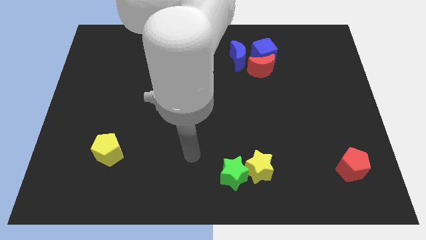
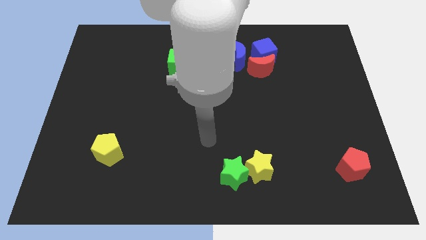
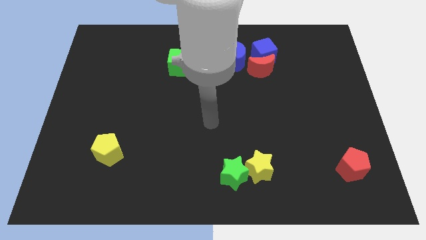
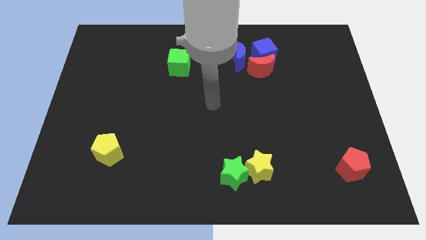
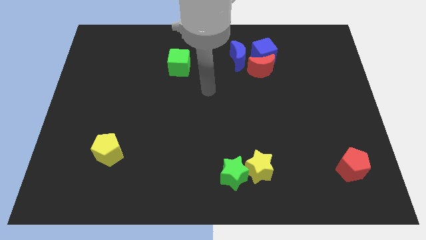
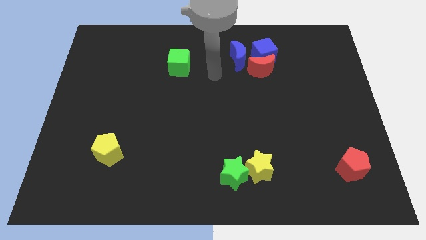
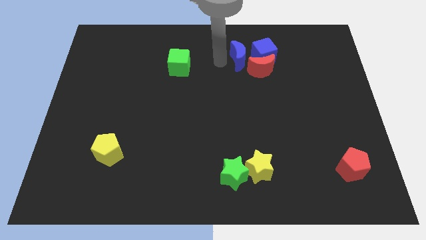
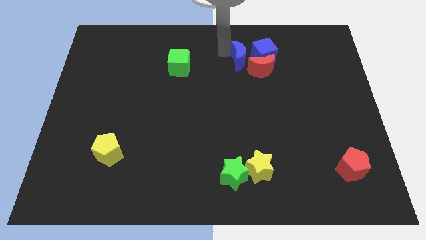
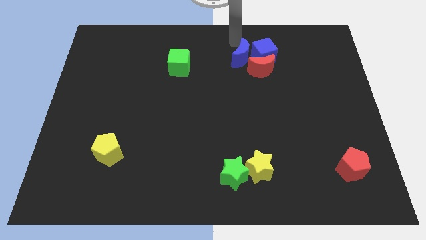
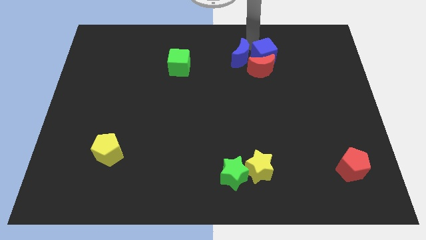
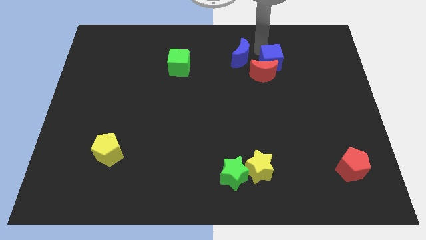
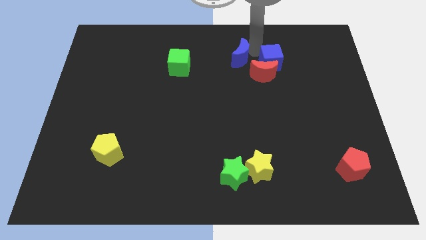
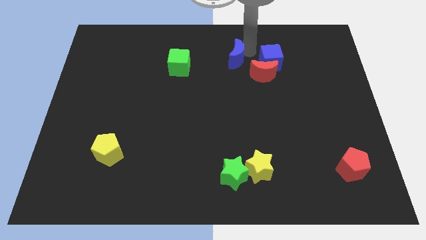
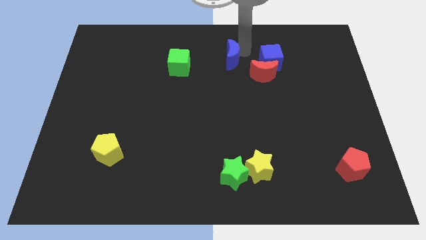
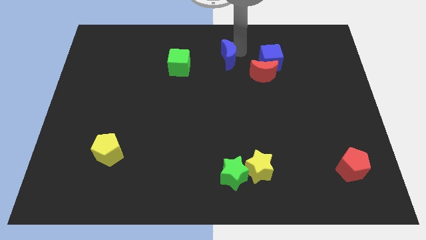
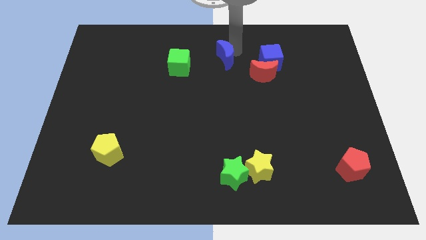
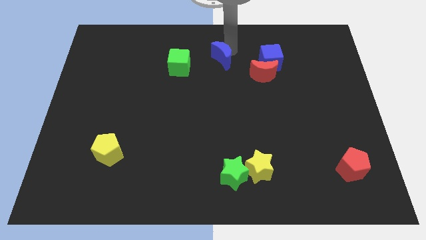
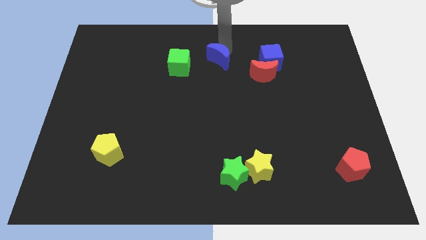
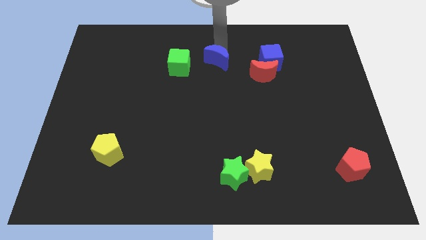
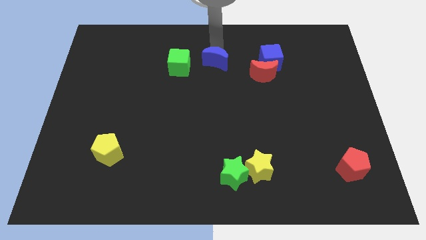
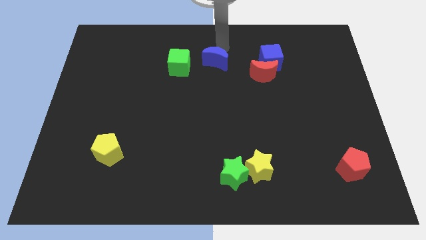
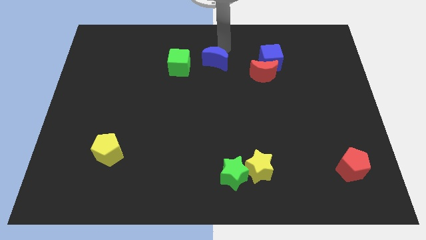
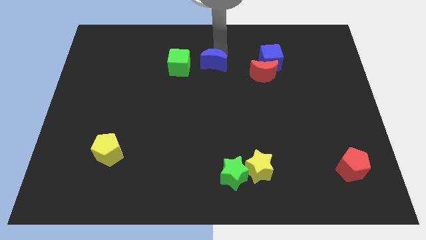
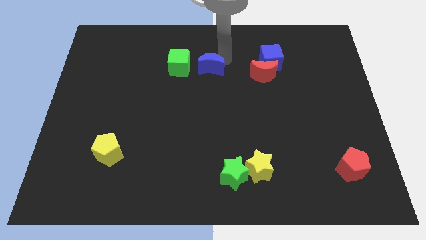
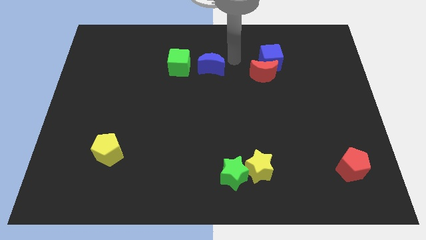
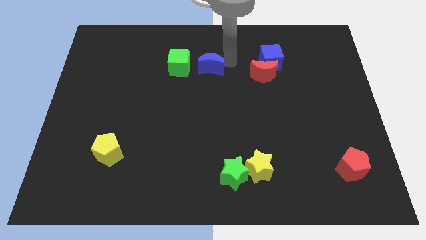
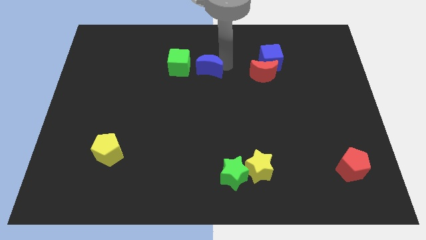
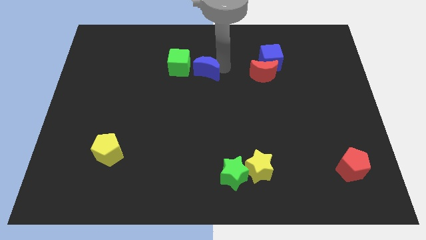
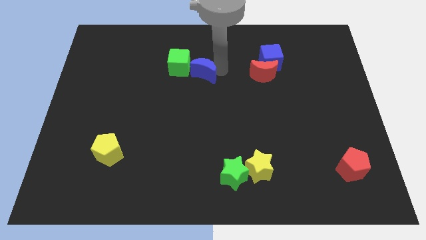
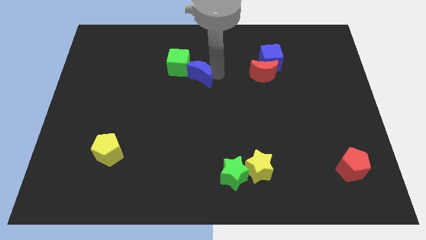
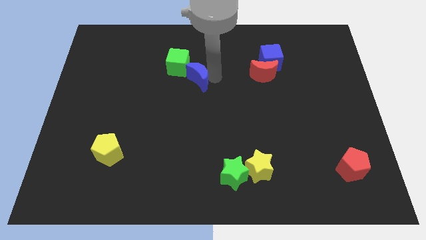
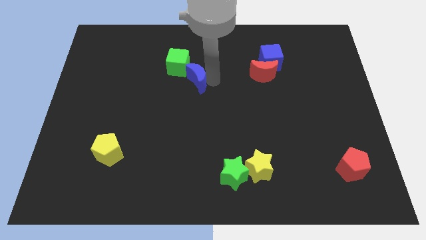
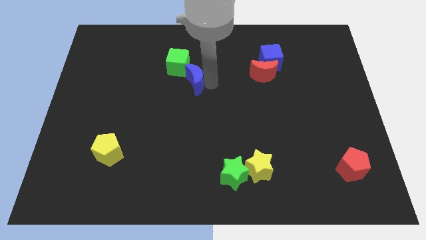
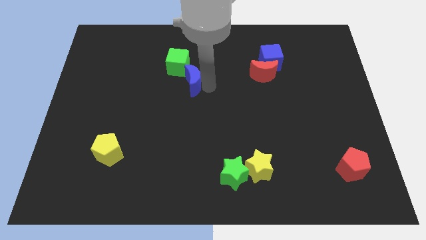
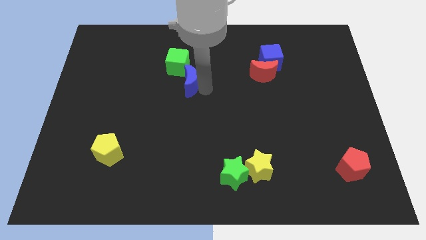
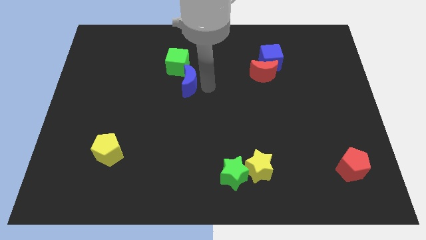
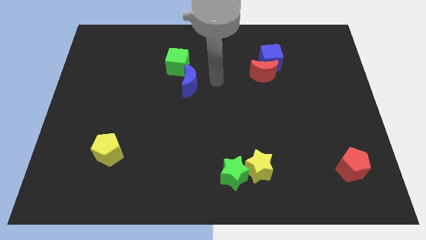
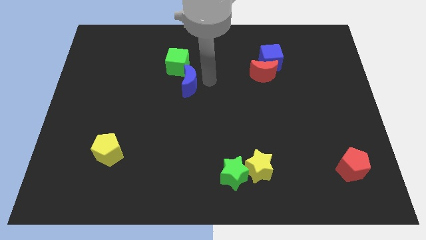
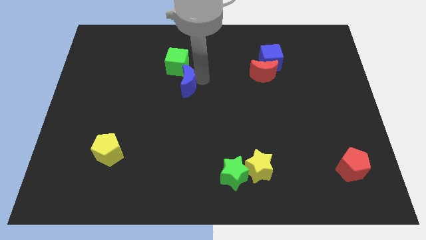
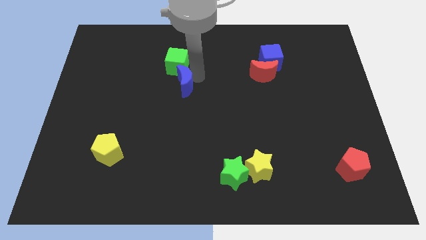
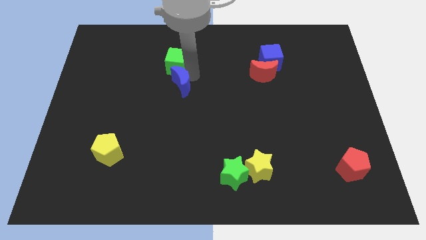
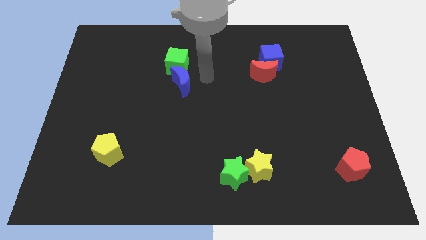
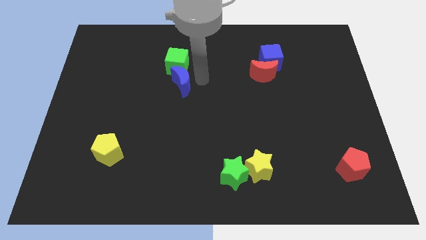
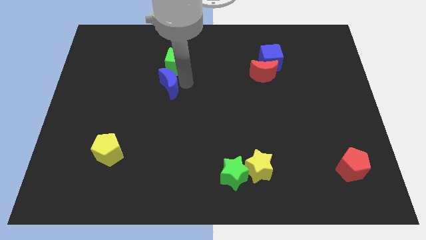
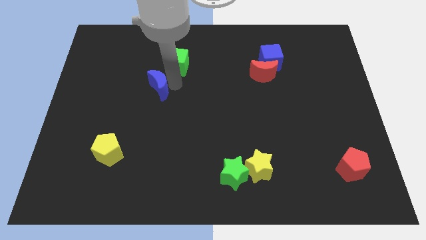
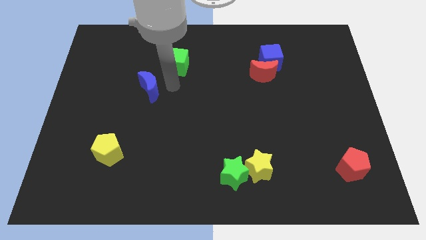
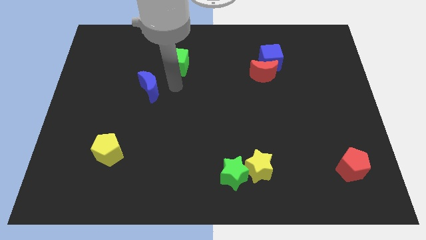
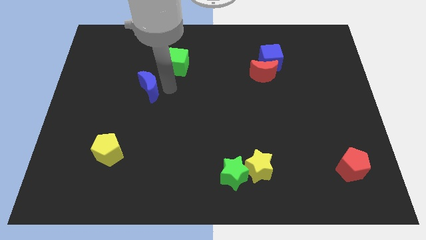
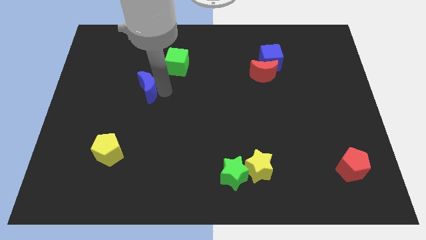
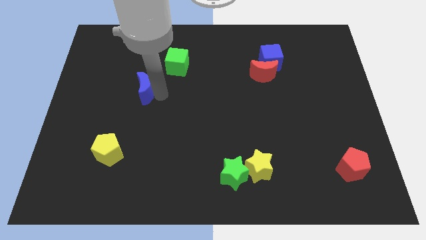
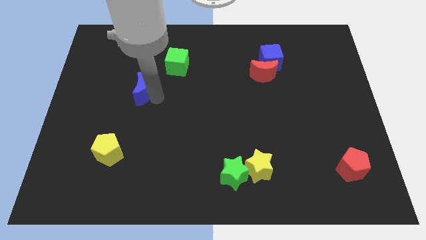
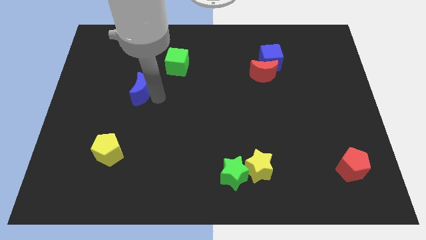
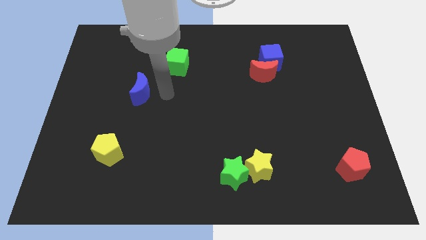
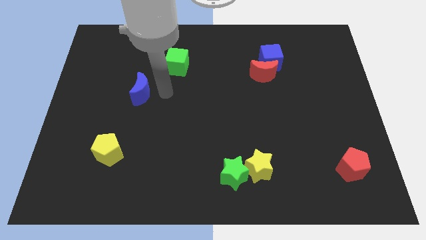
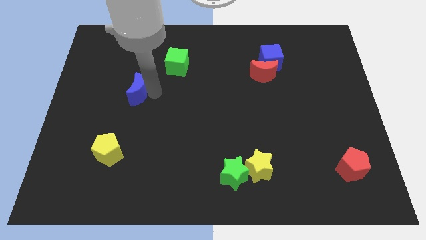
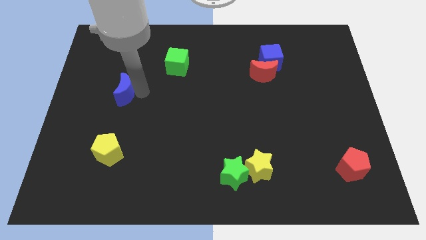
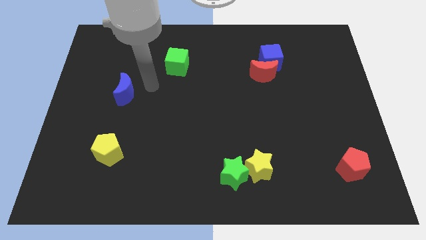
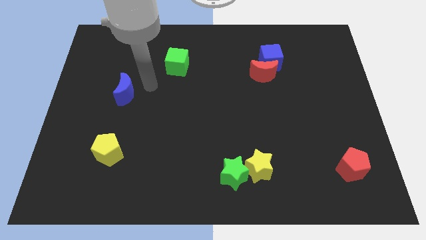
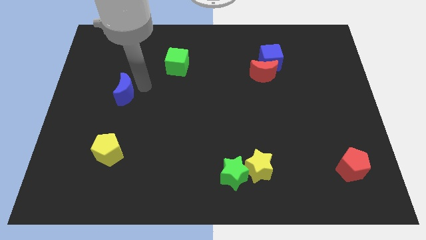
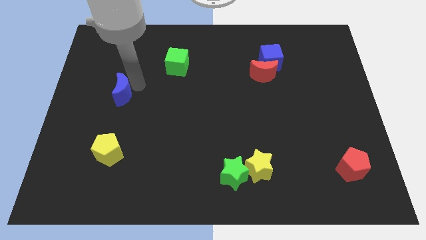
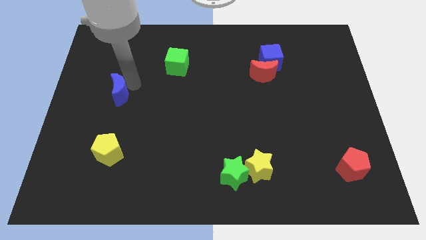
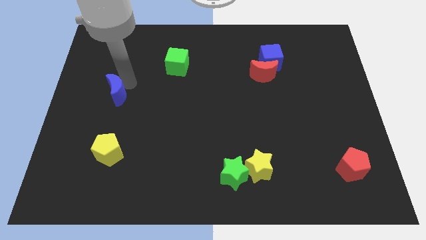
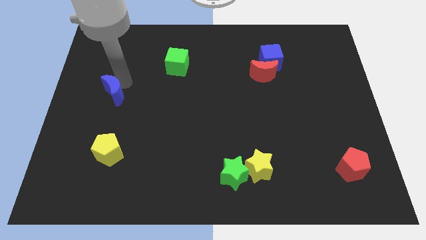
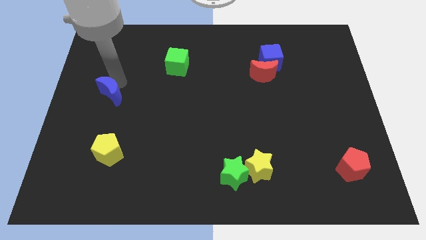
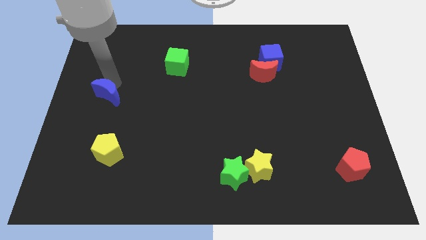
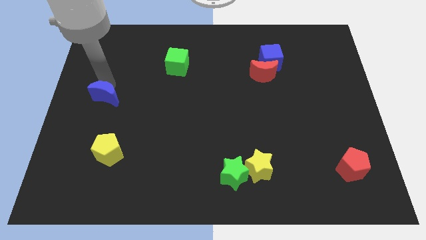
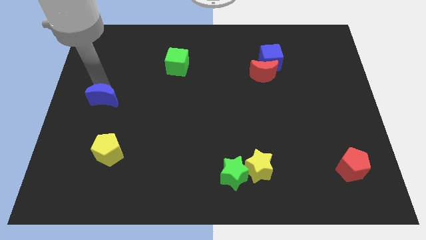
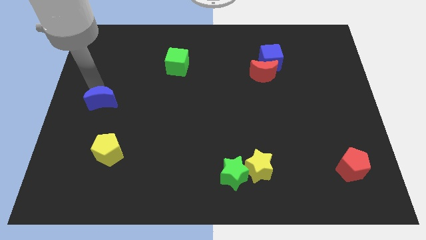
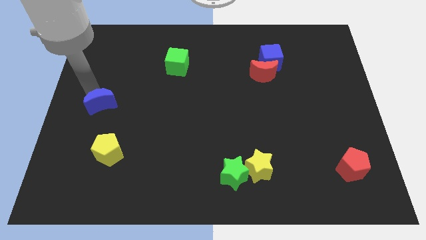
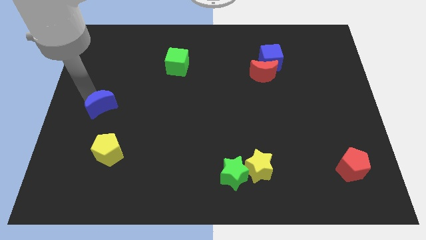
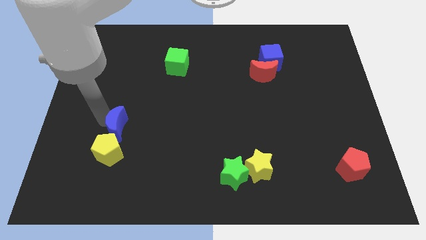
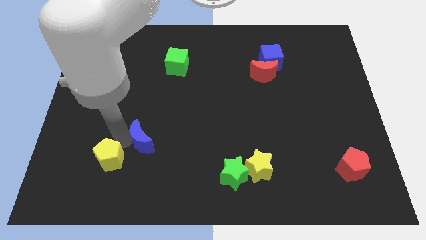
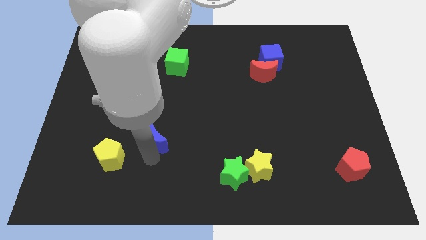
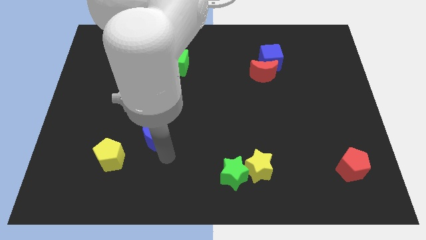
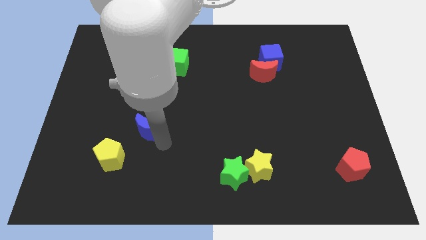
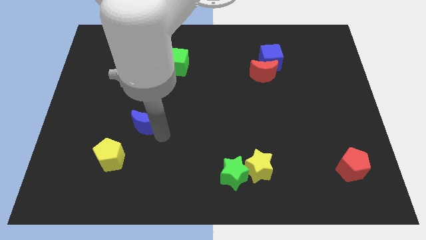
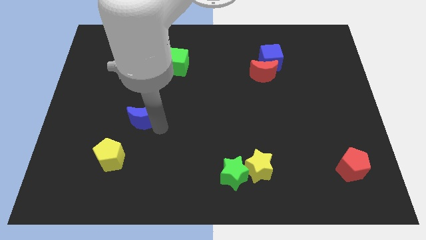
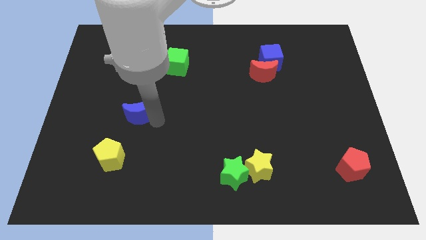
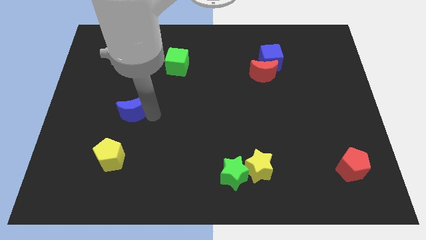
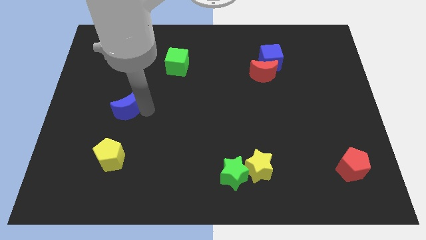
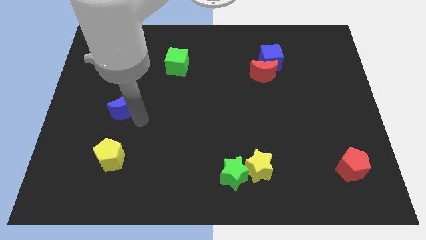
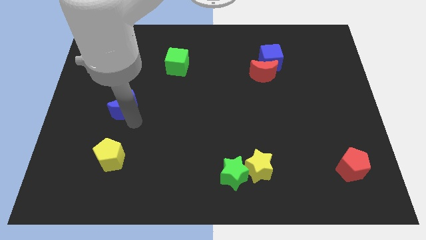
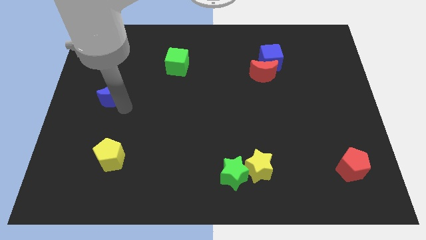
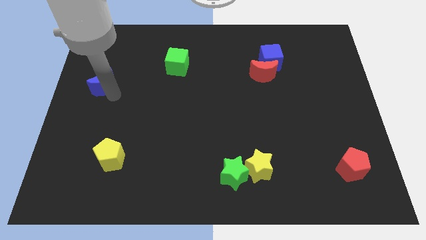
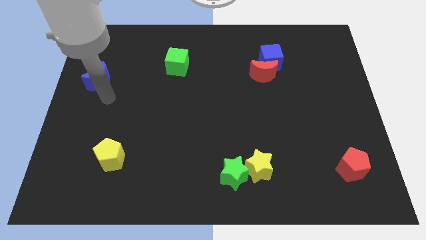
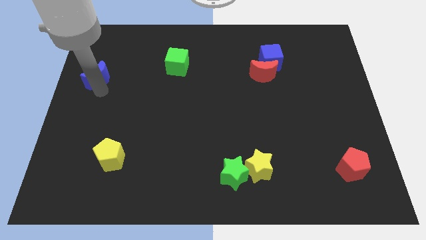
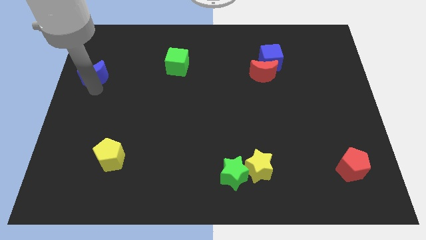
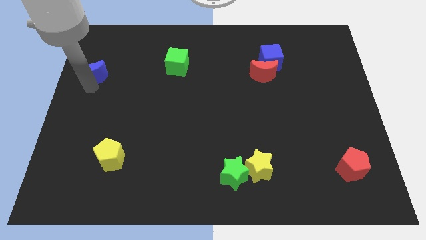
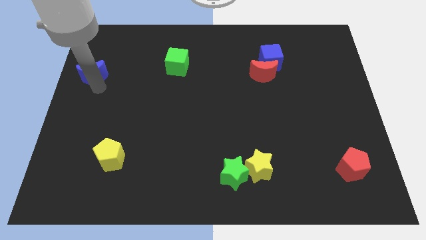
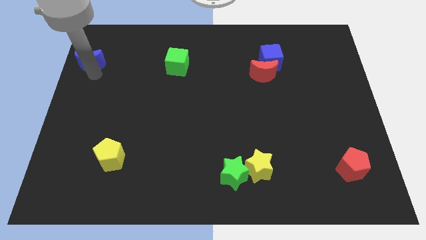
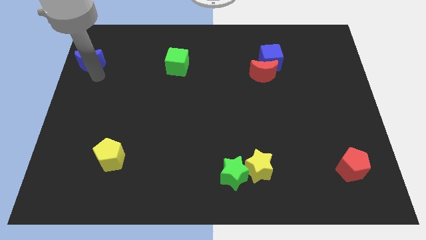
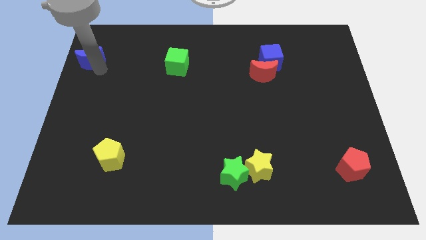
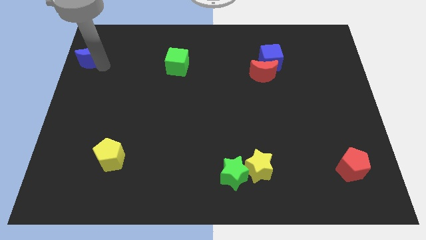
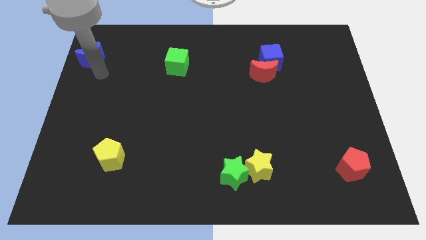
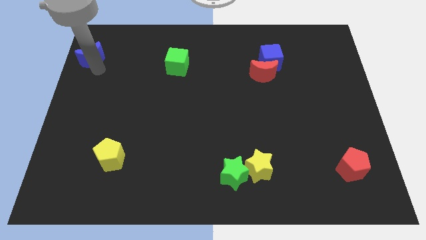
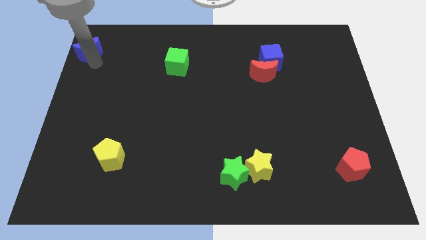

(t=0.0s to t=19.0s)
slide the blue moon to the top left
